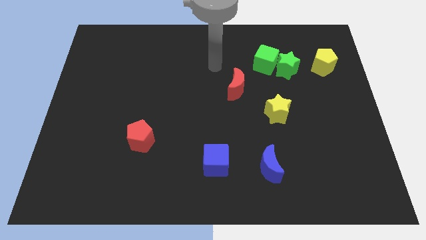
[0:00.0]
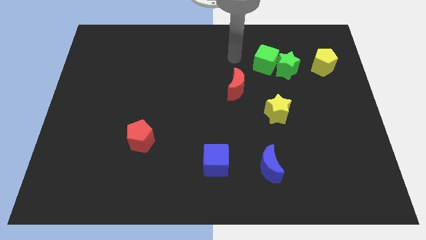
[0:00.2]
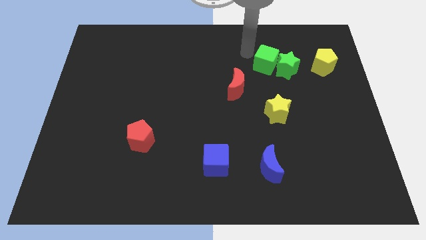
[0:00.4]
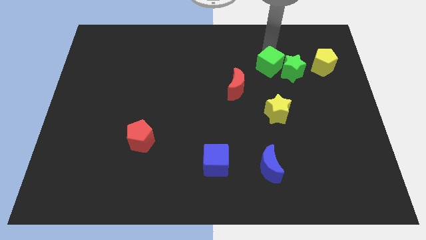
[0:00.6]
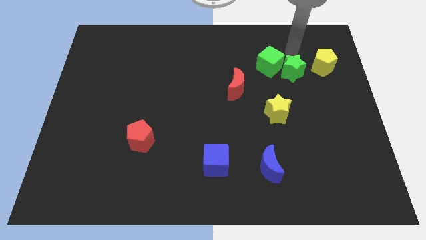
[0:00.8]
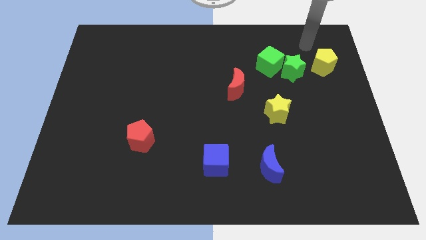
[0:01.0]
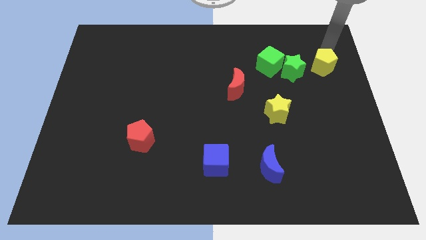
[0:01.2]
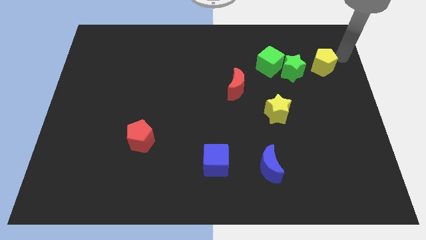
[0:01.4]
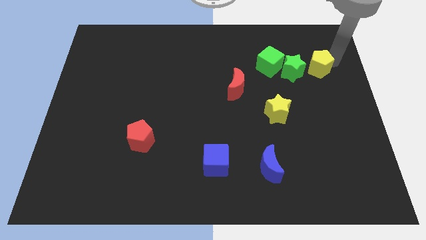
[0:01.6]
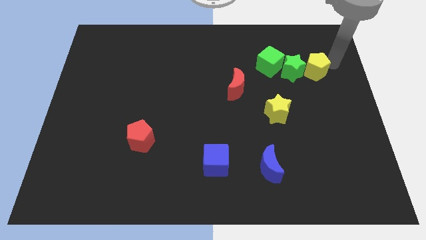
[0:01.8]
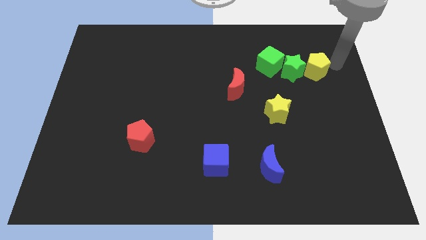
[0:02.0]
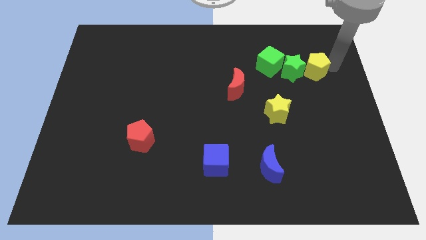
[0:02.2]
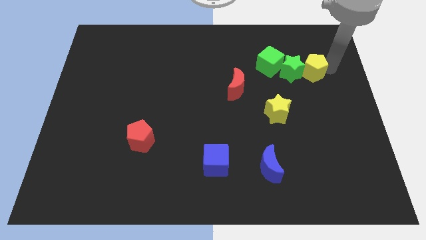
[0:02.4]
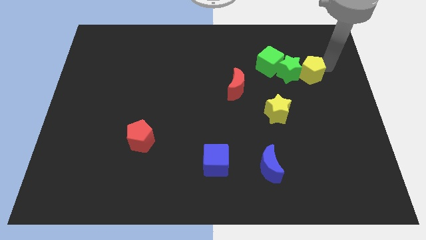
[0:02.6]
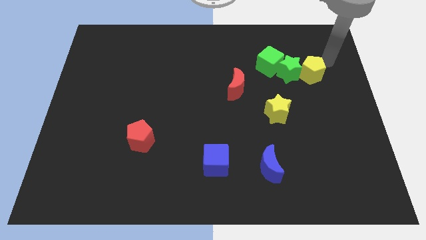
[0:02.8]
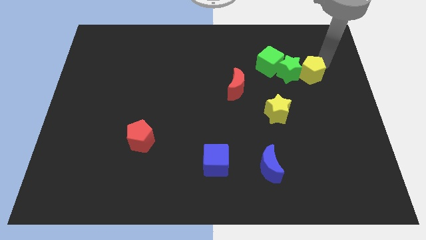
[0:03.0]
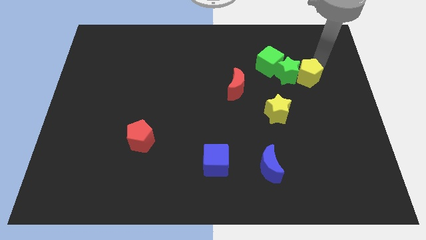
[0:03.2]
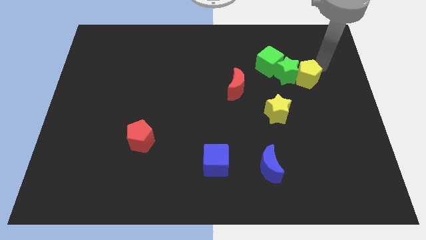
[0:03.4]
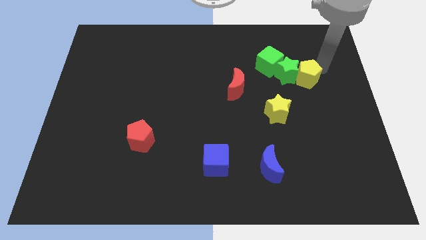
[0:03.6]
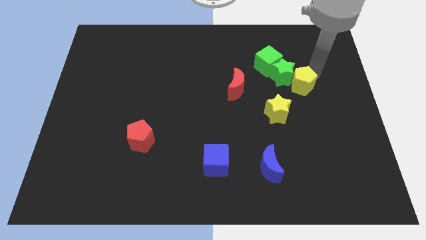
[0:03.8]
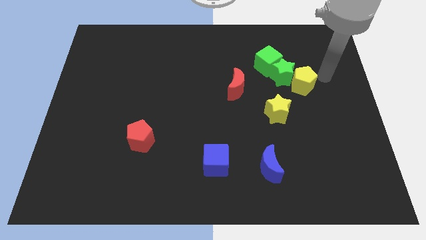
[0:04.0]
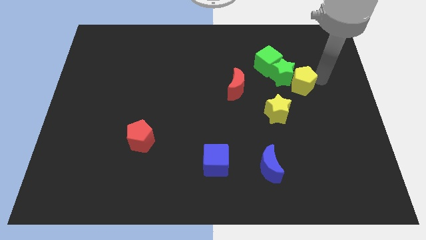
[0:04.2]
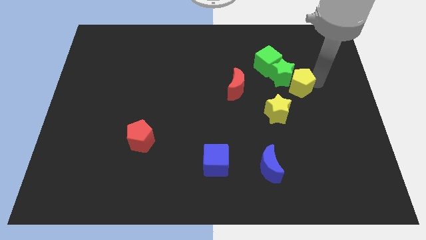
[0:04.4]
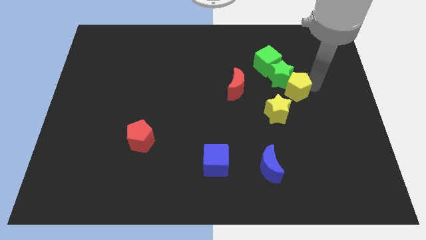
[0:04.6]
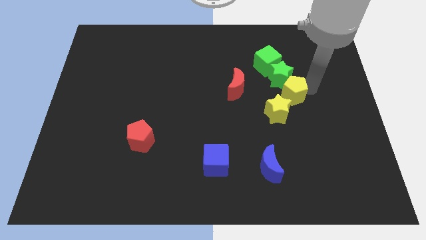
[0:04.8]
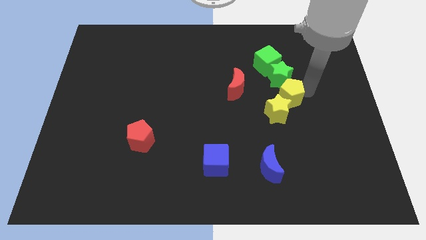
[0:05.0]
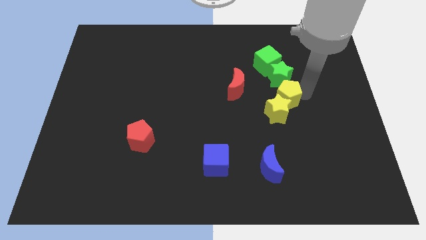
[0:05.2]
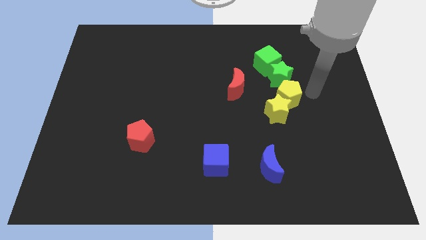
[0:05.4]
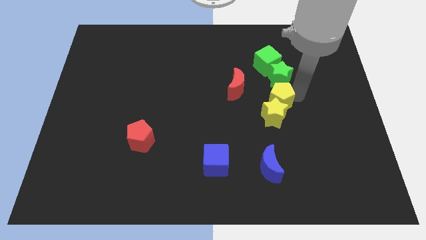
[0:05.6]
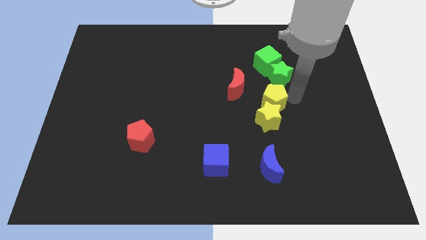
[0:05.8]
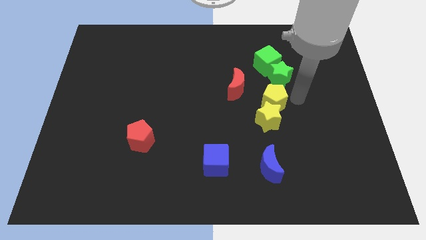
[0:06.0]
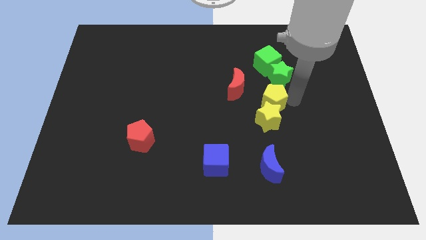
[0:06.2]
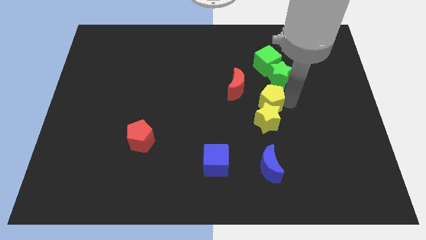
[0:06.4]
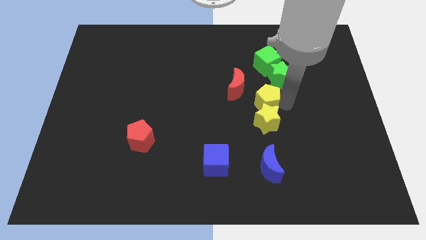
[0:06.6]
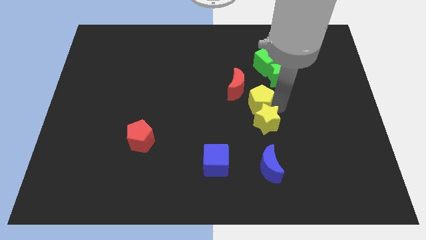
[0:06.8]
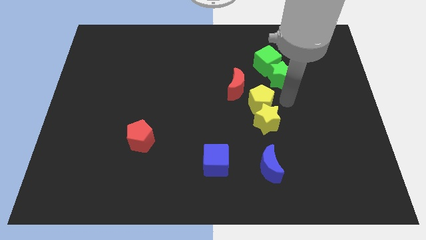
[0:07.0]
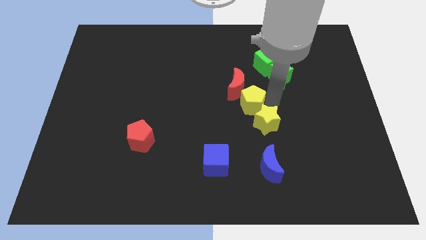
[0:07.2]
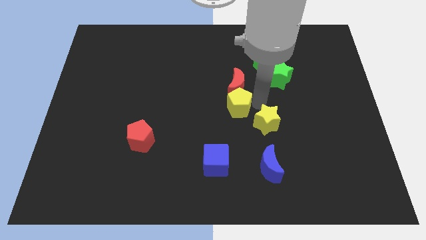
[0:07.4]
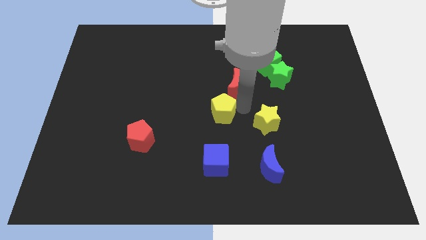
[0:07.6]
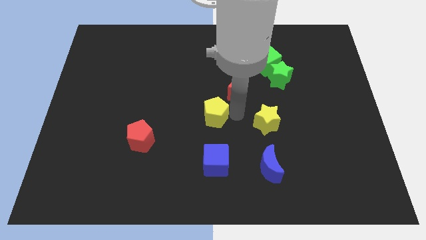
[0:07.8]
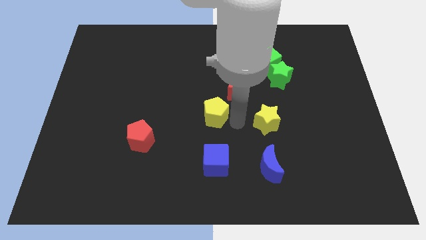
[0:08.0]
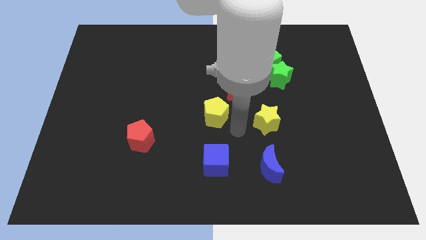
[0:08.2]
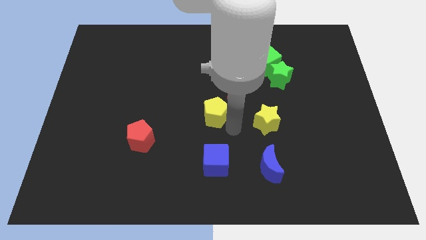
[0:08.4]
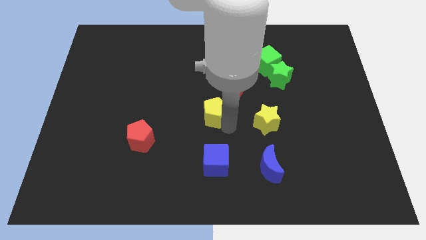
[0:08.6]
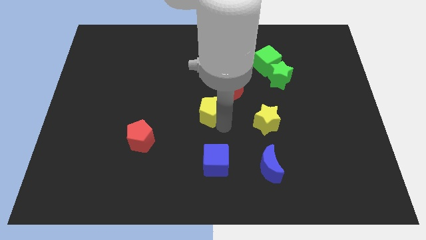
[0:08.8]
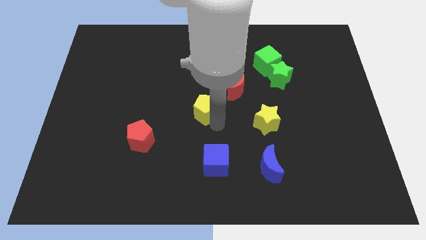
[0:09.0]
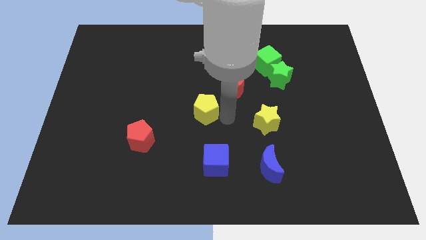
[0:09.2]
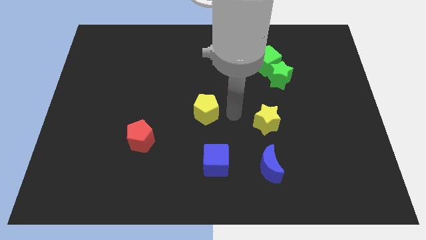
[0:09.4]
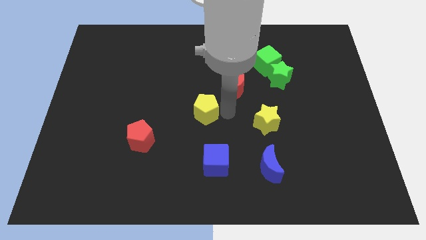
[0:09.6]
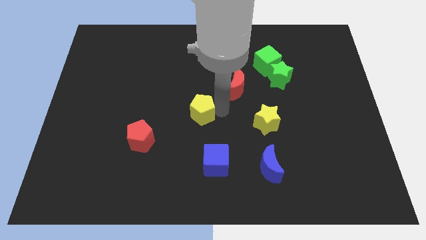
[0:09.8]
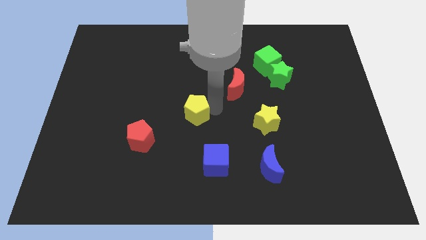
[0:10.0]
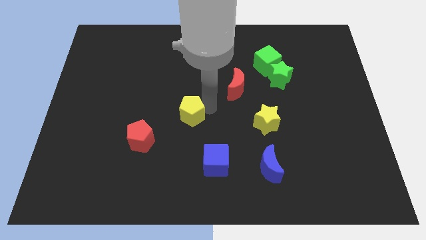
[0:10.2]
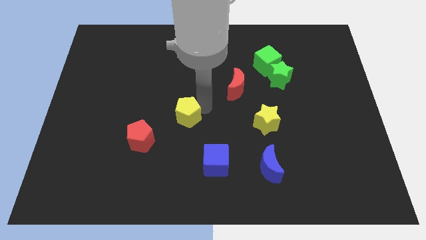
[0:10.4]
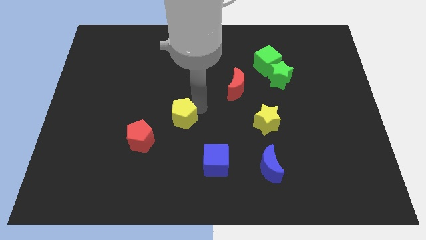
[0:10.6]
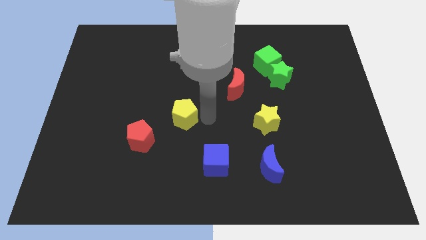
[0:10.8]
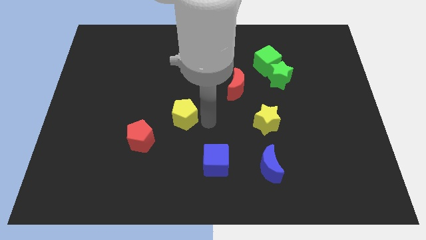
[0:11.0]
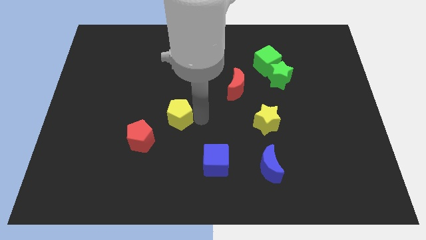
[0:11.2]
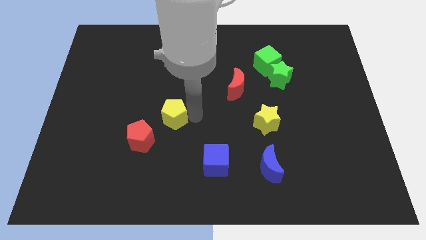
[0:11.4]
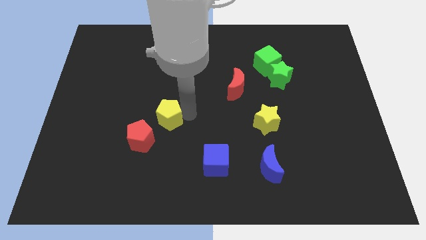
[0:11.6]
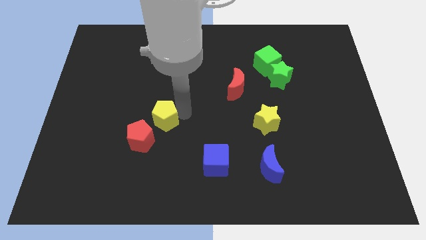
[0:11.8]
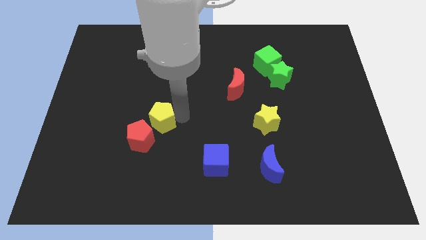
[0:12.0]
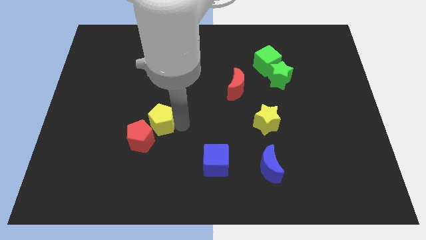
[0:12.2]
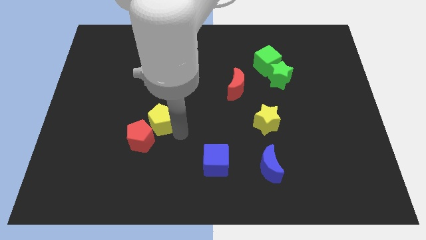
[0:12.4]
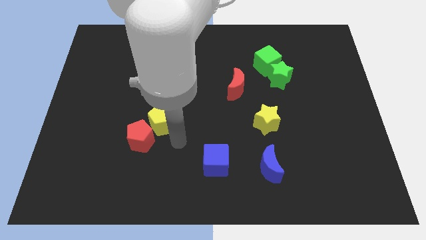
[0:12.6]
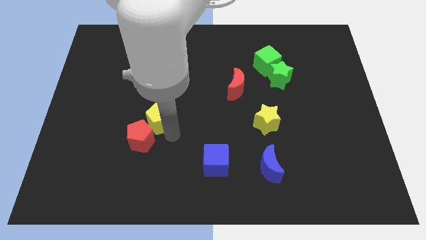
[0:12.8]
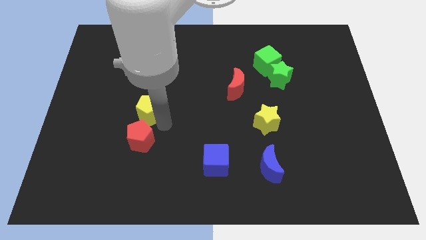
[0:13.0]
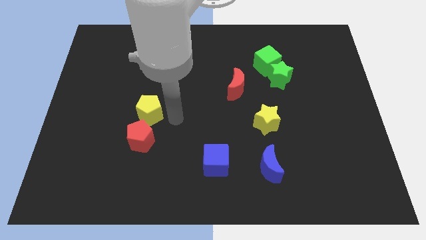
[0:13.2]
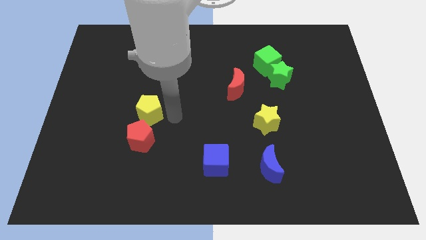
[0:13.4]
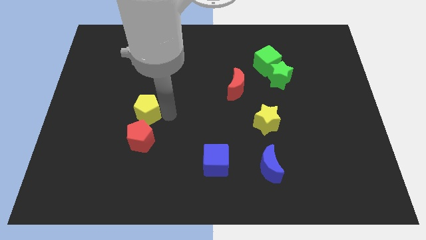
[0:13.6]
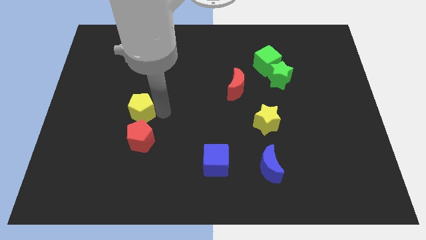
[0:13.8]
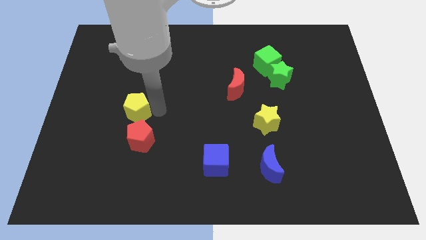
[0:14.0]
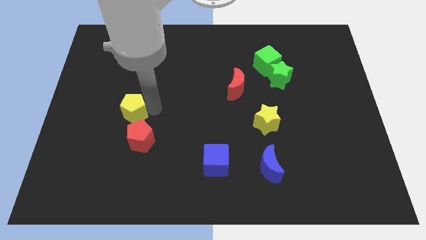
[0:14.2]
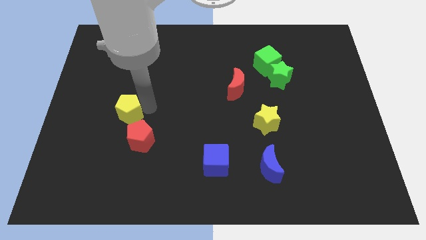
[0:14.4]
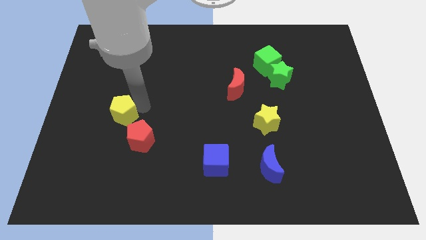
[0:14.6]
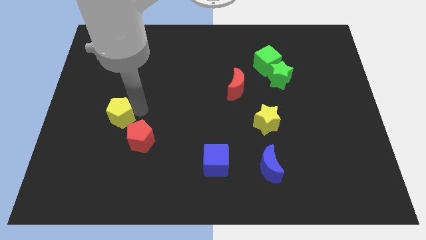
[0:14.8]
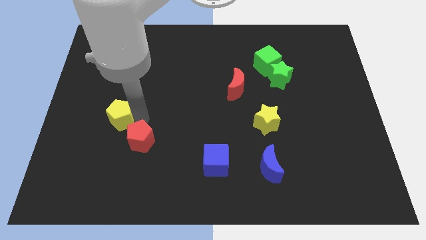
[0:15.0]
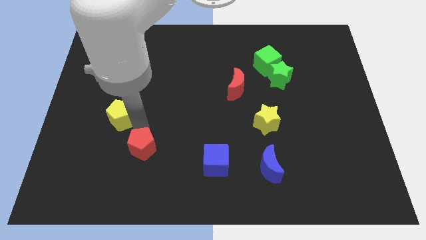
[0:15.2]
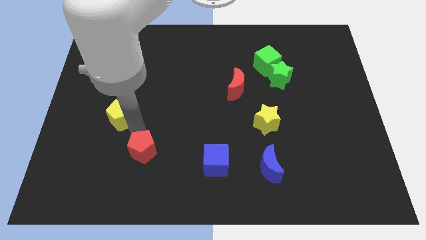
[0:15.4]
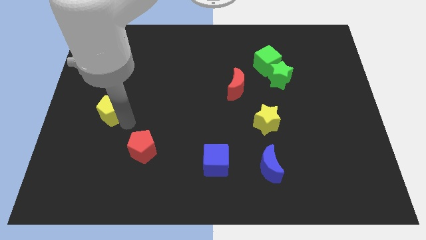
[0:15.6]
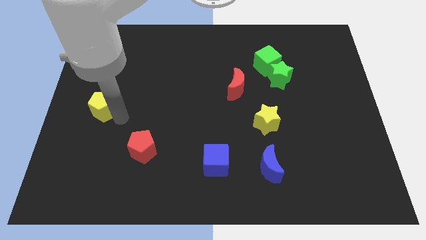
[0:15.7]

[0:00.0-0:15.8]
move the yellow pentagon to the center left
